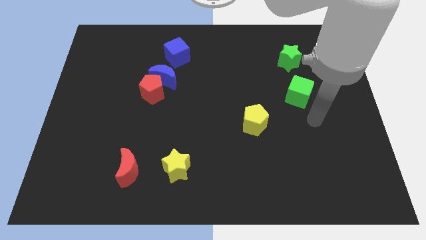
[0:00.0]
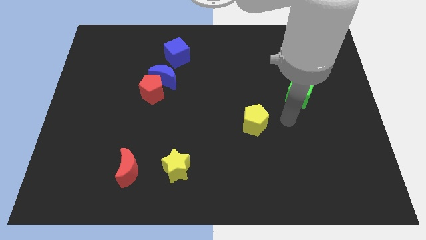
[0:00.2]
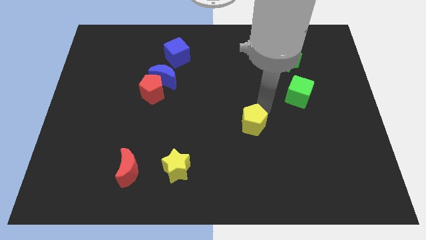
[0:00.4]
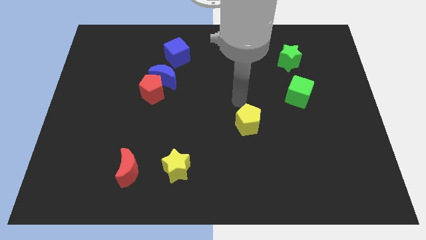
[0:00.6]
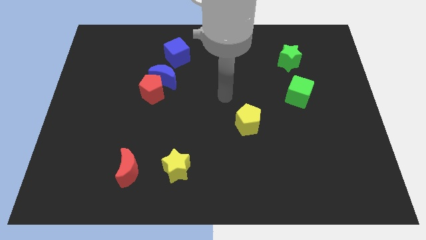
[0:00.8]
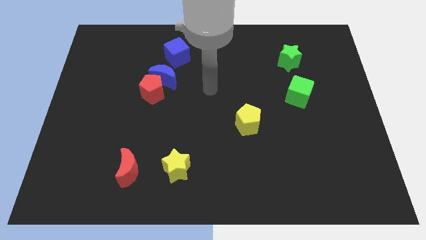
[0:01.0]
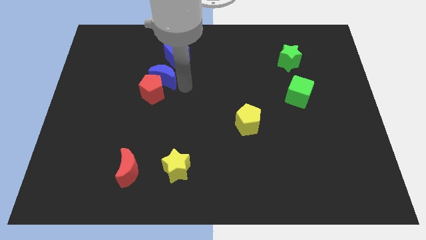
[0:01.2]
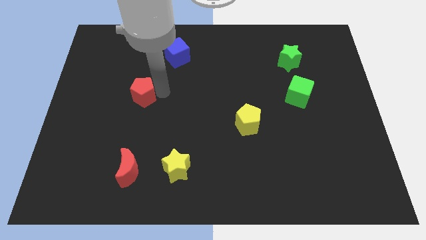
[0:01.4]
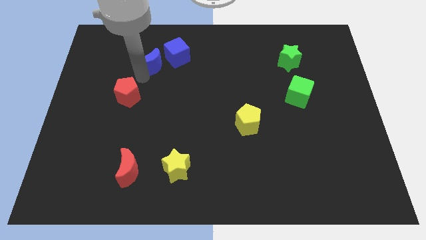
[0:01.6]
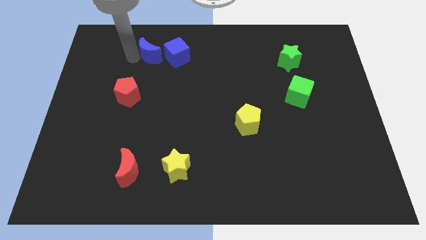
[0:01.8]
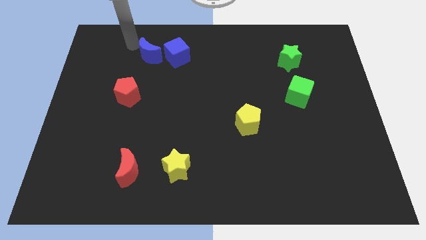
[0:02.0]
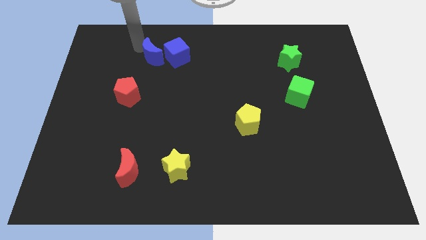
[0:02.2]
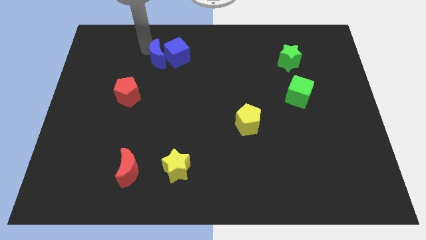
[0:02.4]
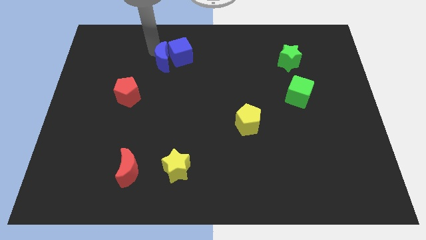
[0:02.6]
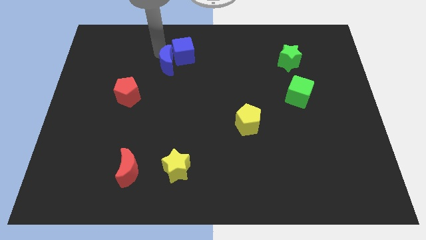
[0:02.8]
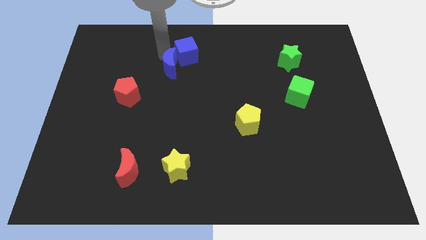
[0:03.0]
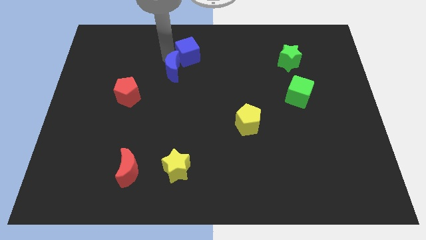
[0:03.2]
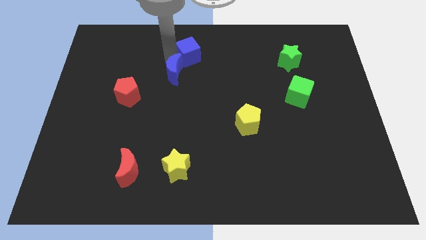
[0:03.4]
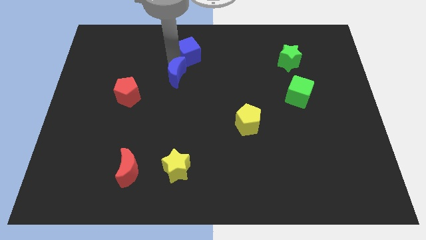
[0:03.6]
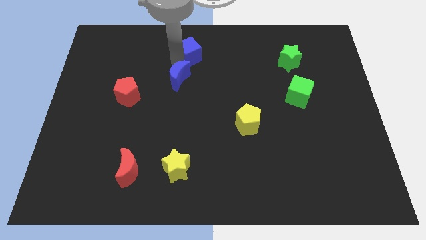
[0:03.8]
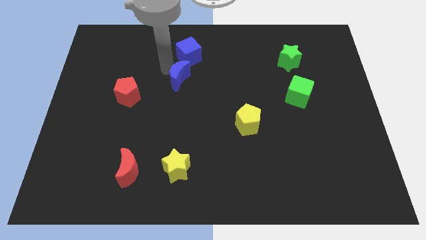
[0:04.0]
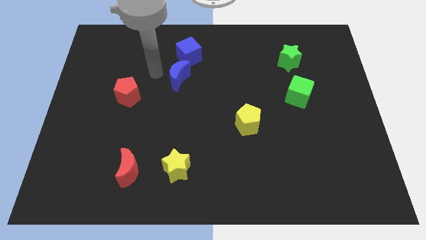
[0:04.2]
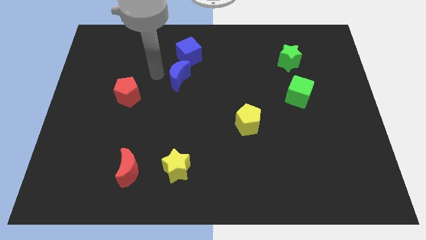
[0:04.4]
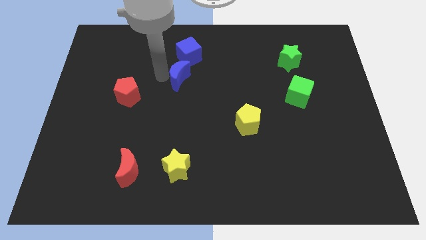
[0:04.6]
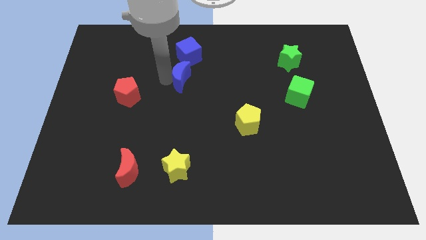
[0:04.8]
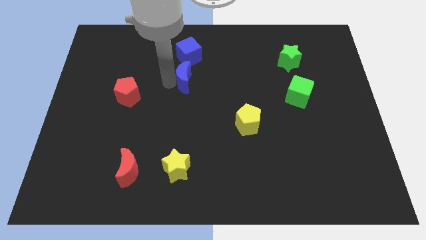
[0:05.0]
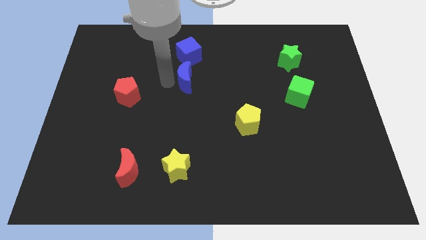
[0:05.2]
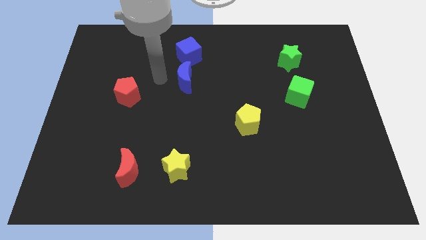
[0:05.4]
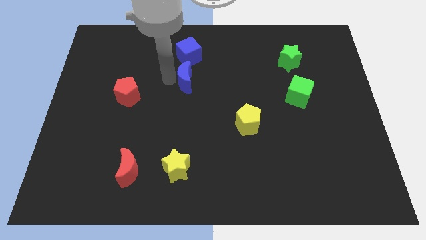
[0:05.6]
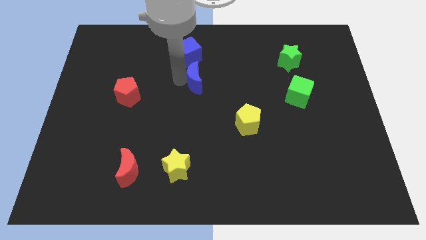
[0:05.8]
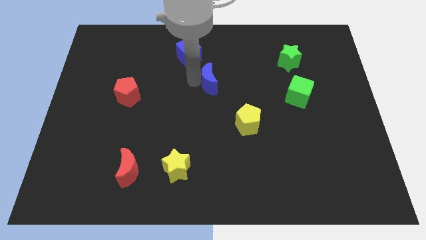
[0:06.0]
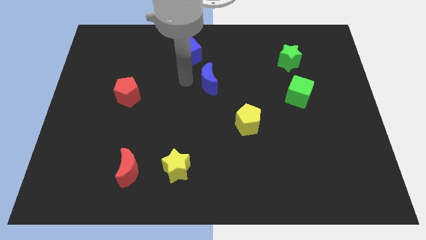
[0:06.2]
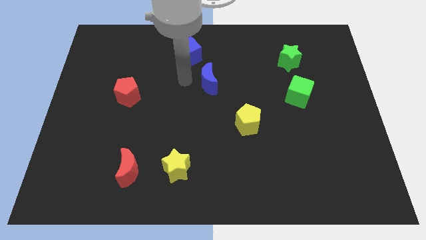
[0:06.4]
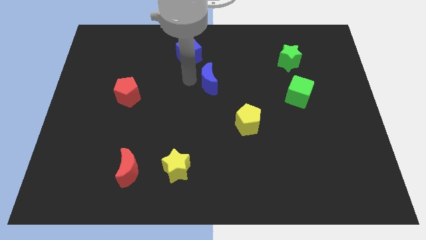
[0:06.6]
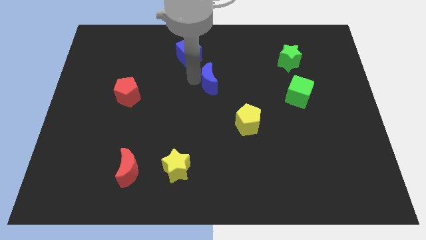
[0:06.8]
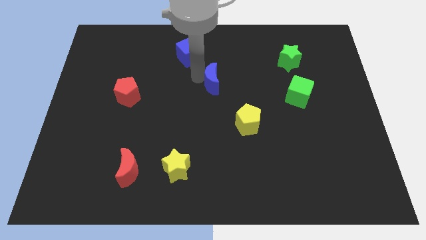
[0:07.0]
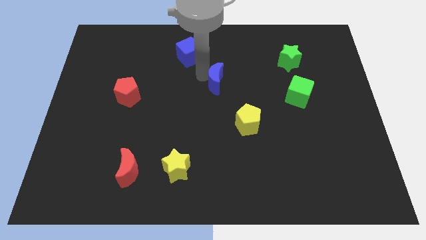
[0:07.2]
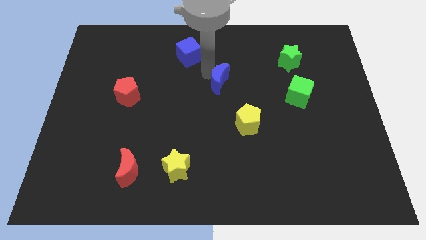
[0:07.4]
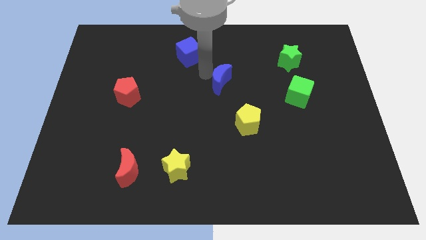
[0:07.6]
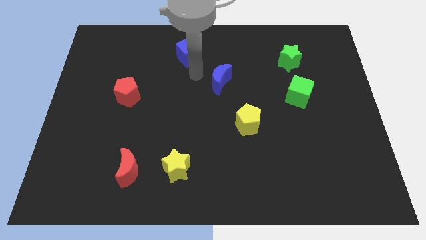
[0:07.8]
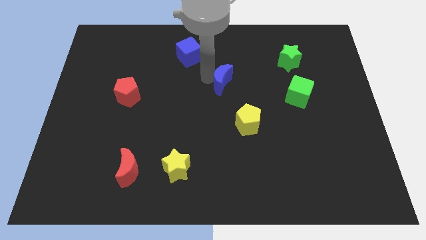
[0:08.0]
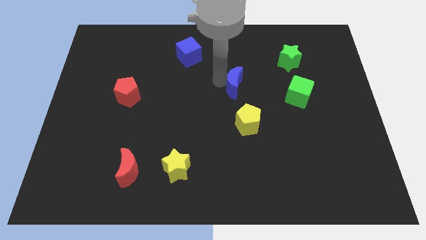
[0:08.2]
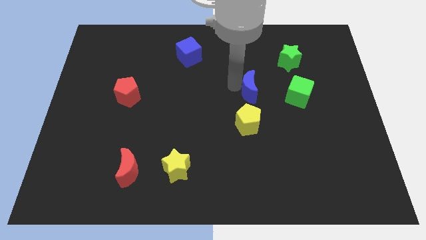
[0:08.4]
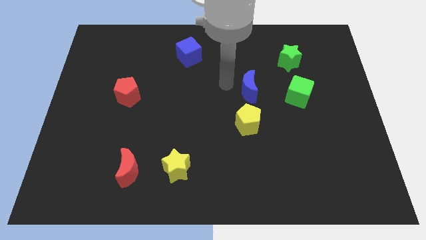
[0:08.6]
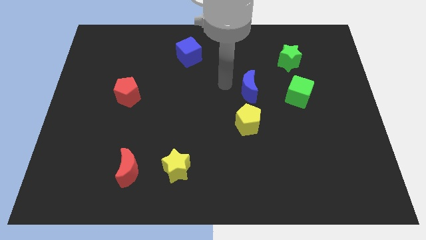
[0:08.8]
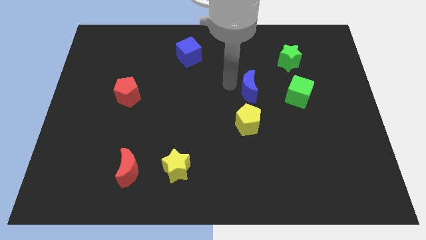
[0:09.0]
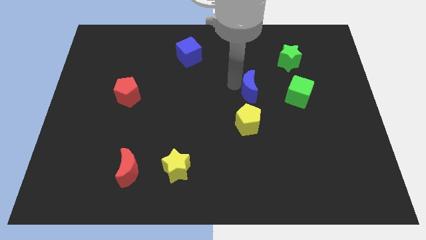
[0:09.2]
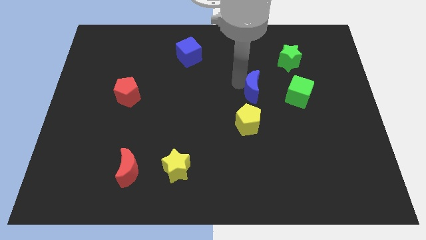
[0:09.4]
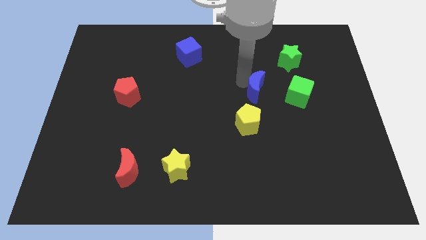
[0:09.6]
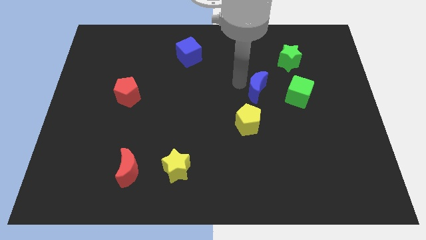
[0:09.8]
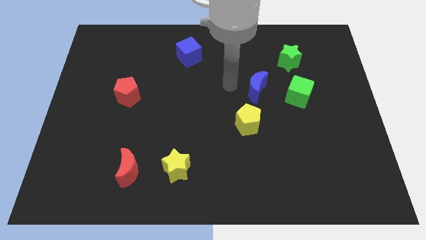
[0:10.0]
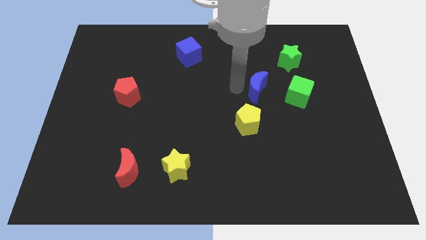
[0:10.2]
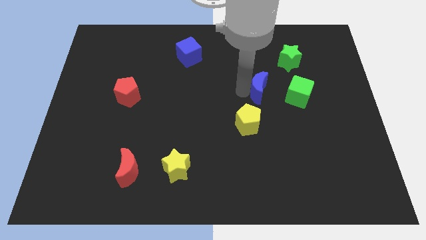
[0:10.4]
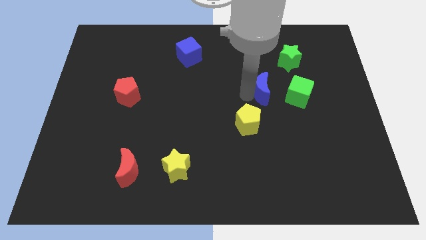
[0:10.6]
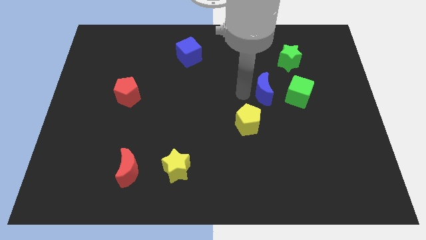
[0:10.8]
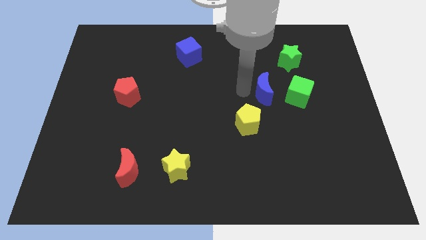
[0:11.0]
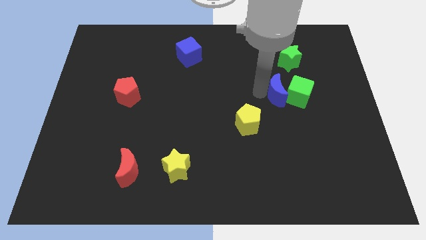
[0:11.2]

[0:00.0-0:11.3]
move the blue moon close to the green cube

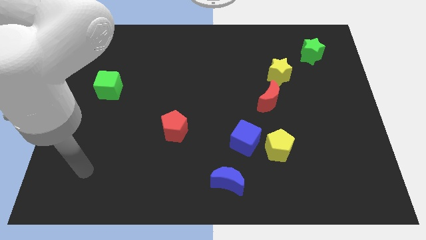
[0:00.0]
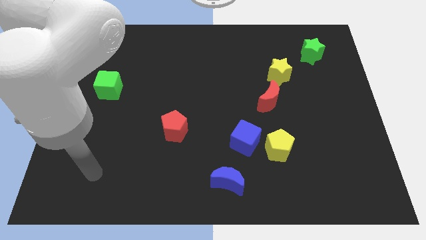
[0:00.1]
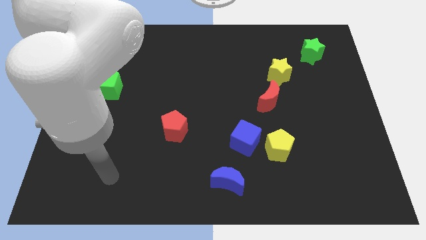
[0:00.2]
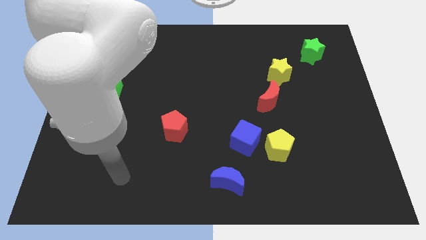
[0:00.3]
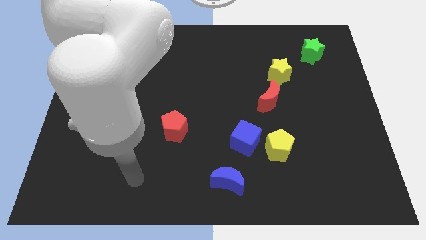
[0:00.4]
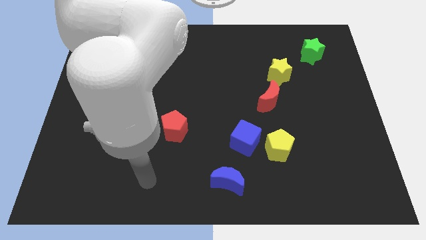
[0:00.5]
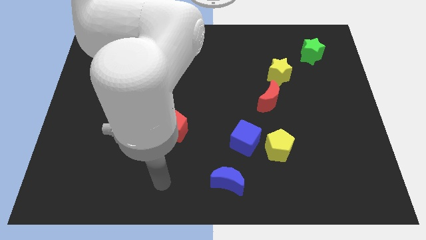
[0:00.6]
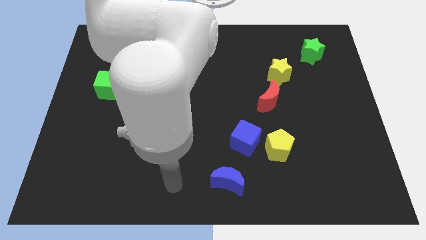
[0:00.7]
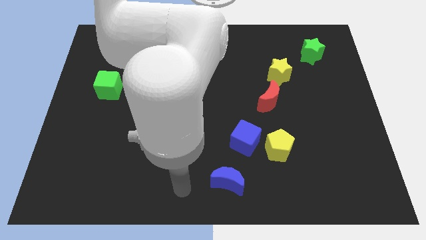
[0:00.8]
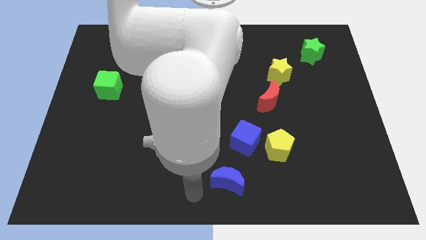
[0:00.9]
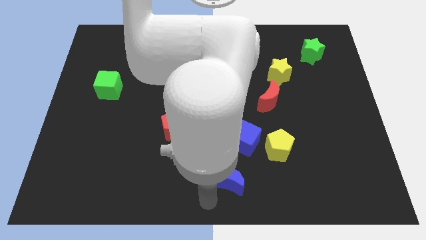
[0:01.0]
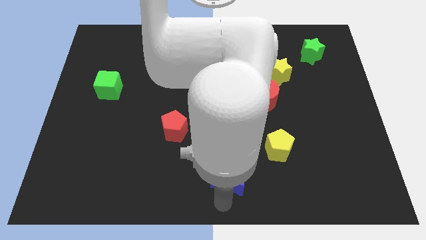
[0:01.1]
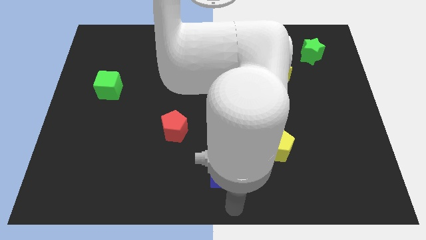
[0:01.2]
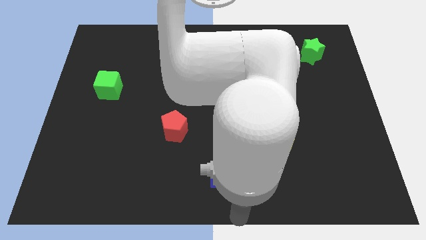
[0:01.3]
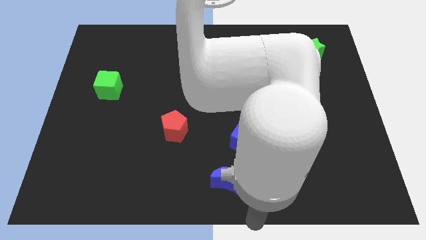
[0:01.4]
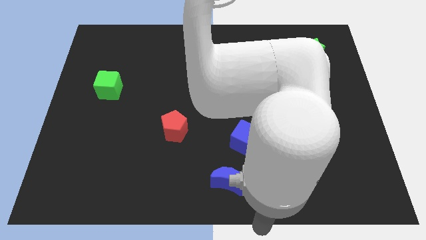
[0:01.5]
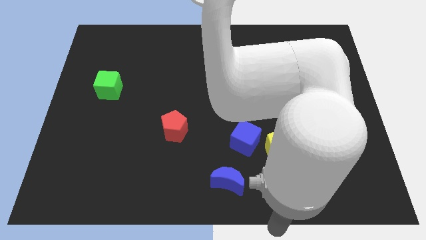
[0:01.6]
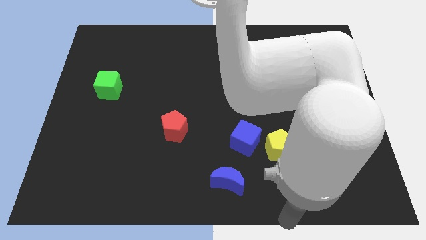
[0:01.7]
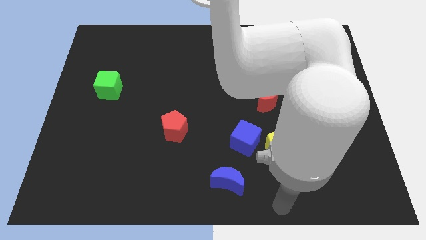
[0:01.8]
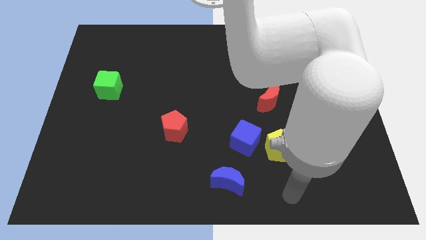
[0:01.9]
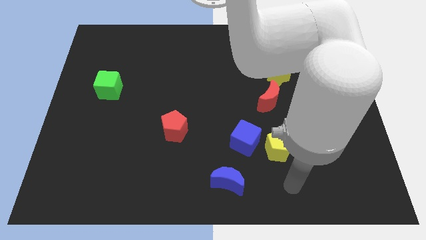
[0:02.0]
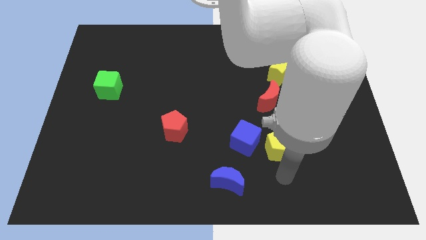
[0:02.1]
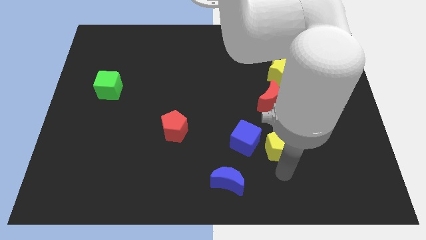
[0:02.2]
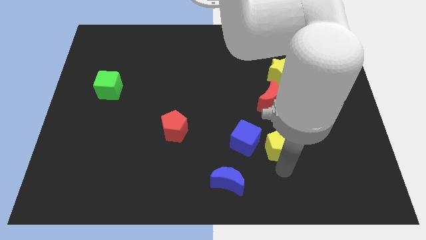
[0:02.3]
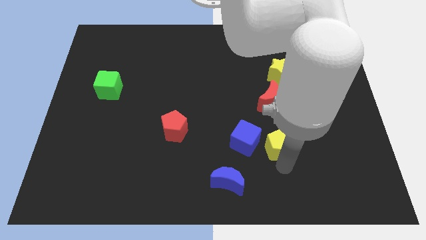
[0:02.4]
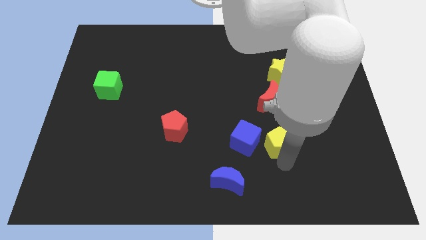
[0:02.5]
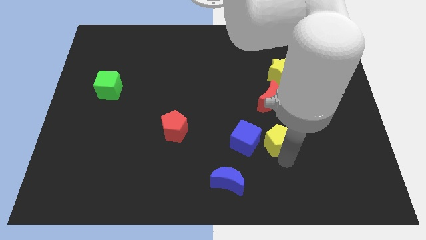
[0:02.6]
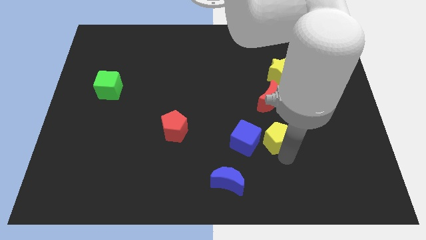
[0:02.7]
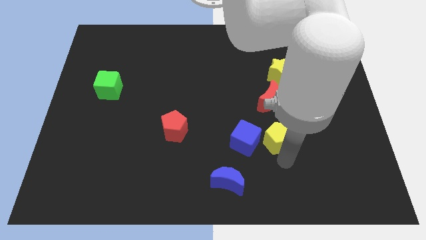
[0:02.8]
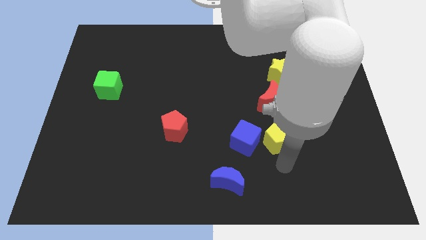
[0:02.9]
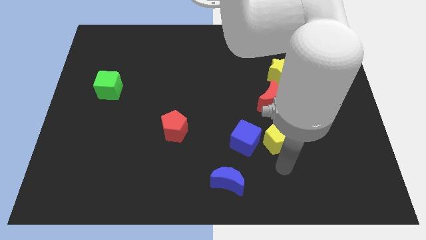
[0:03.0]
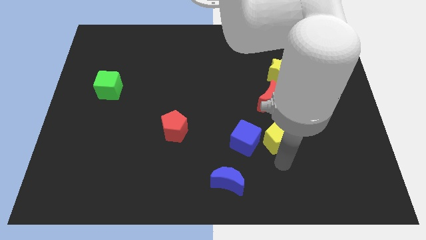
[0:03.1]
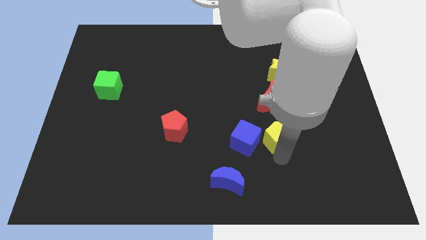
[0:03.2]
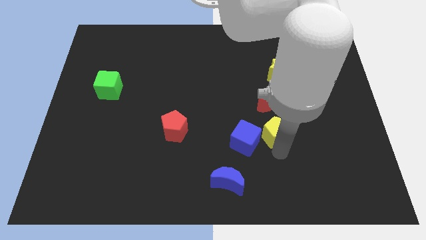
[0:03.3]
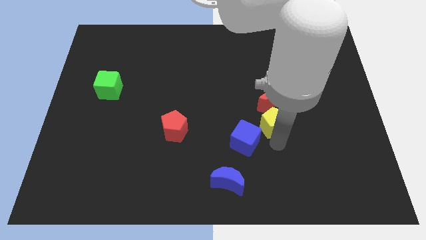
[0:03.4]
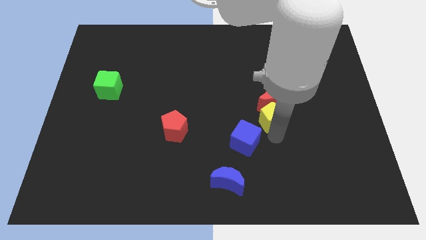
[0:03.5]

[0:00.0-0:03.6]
slide the yellow pentagon close to the red moon
